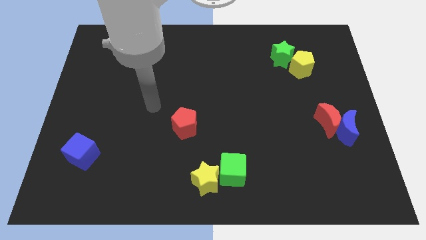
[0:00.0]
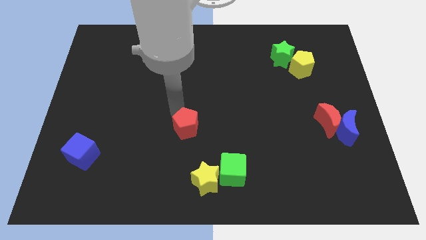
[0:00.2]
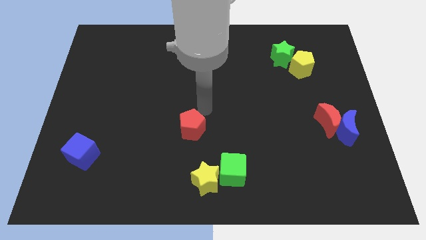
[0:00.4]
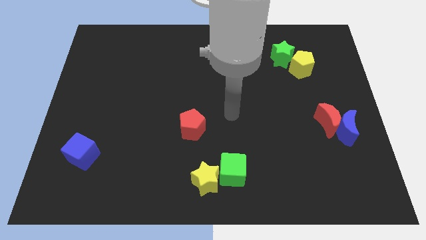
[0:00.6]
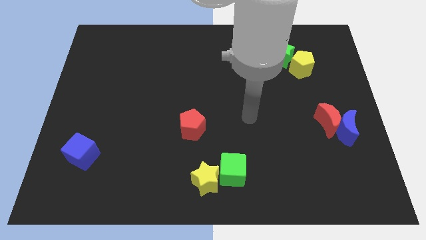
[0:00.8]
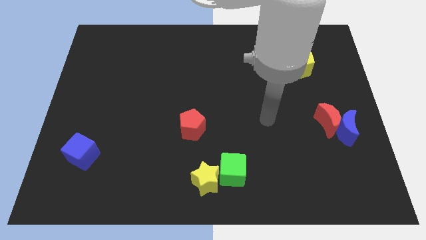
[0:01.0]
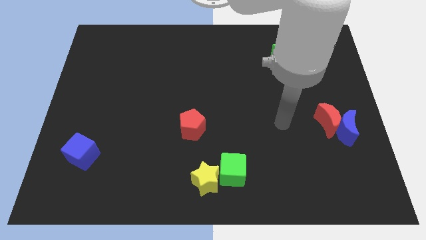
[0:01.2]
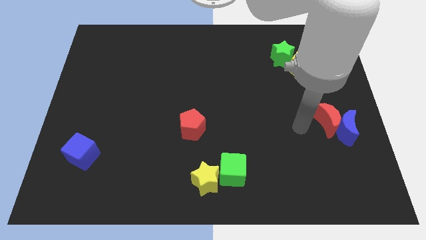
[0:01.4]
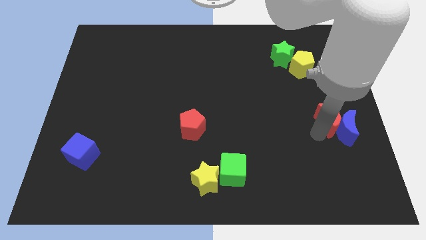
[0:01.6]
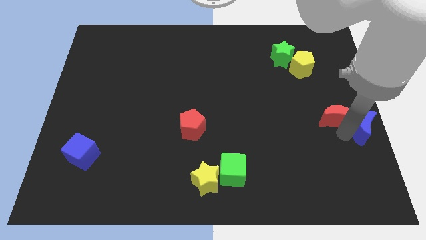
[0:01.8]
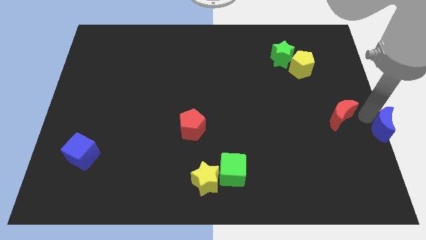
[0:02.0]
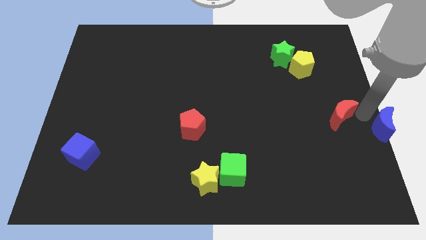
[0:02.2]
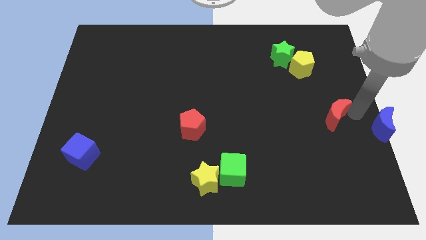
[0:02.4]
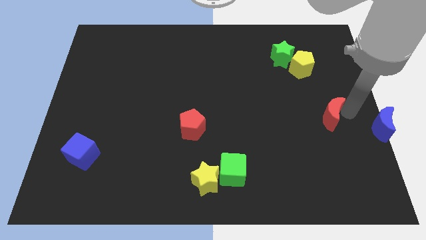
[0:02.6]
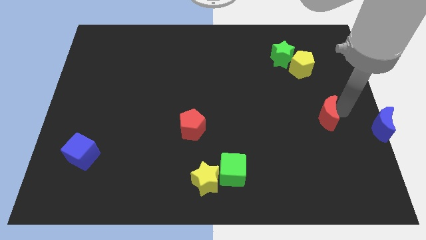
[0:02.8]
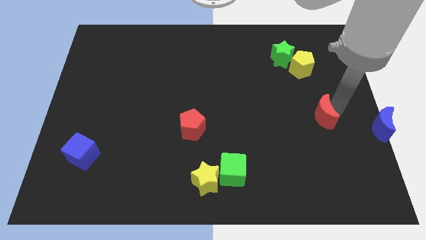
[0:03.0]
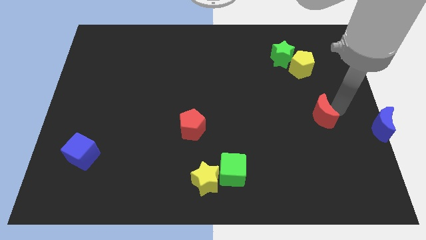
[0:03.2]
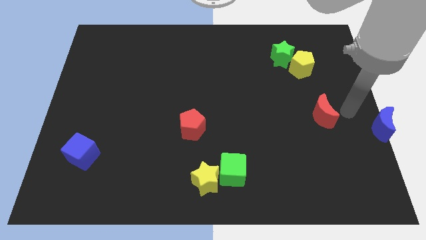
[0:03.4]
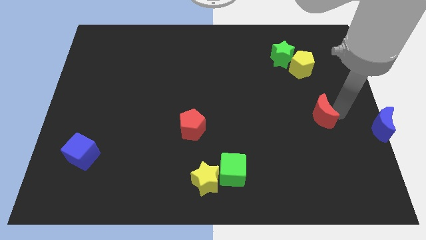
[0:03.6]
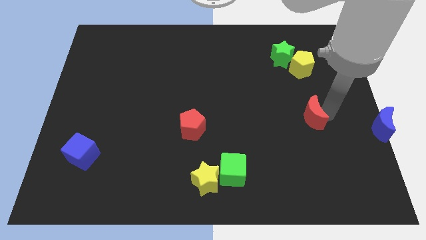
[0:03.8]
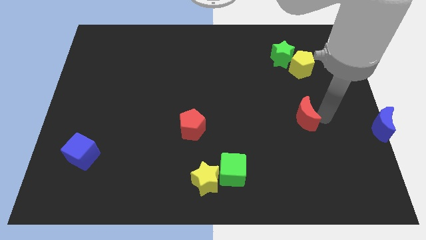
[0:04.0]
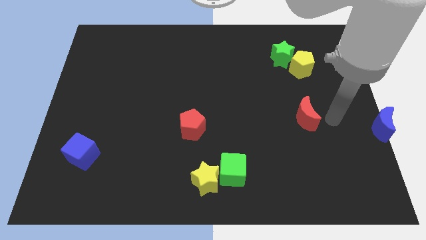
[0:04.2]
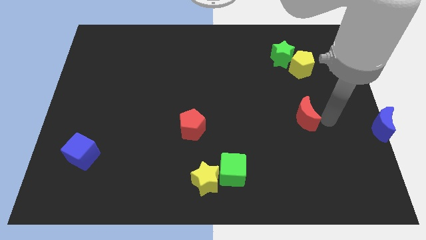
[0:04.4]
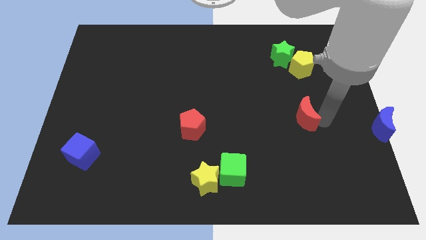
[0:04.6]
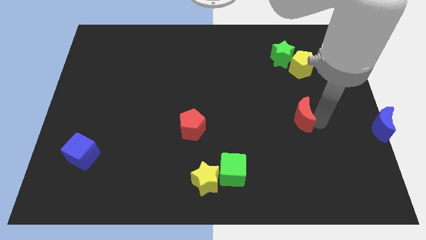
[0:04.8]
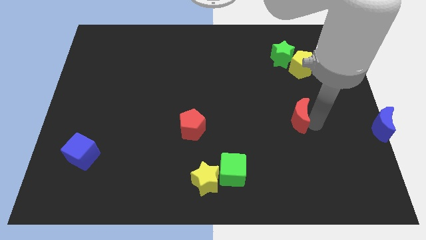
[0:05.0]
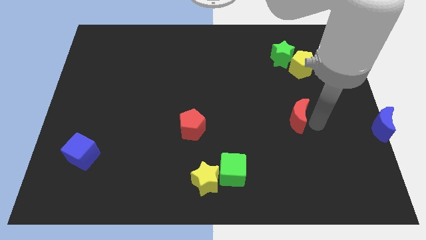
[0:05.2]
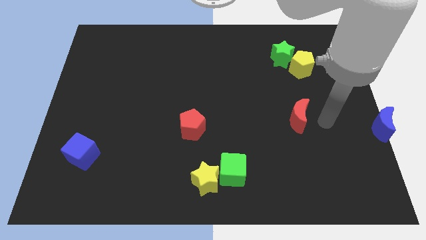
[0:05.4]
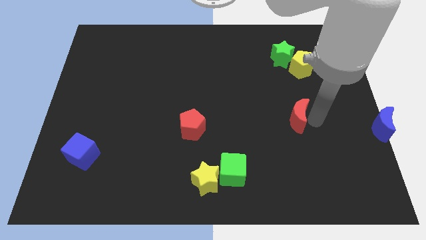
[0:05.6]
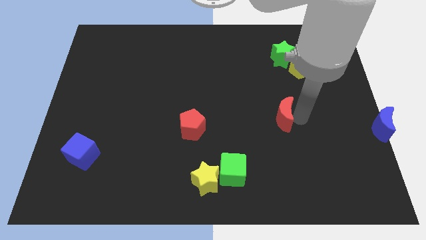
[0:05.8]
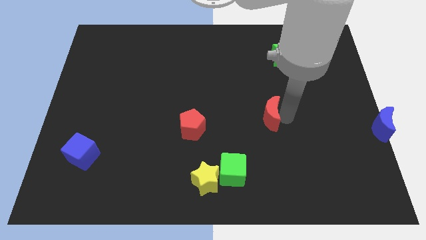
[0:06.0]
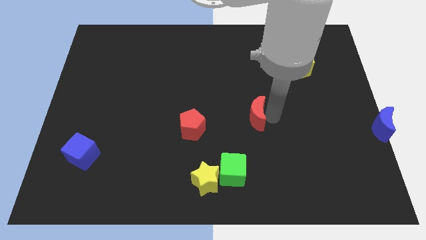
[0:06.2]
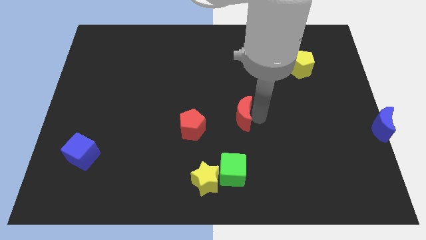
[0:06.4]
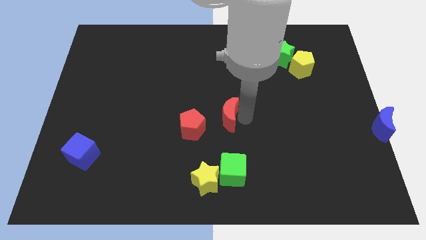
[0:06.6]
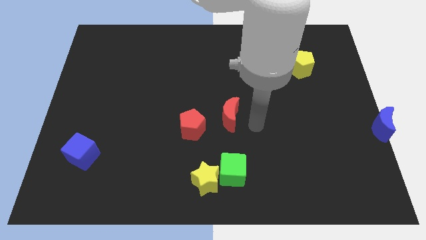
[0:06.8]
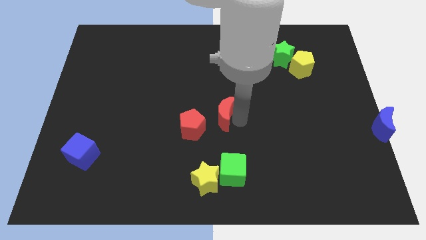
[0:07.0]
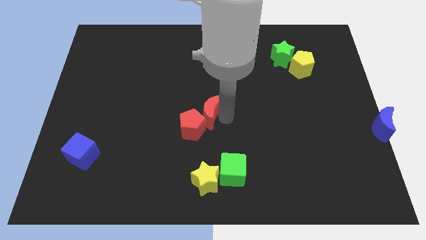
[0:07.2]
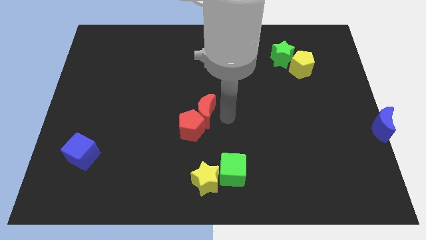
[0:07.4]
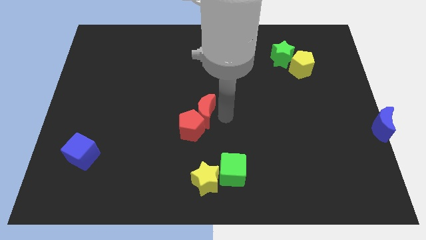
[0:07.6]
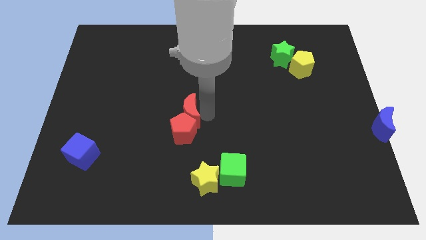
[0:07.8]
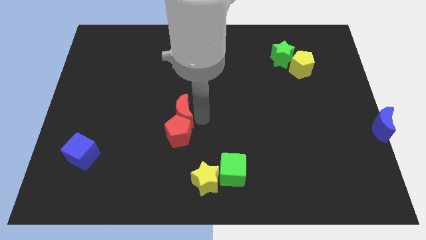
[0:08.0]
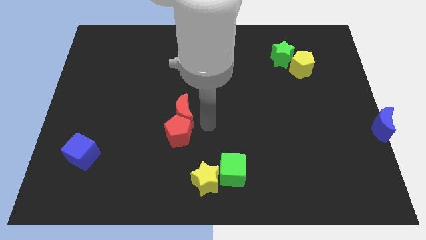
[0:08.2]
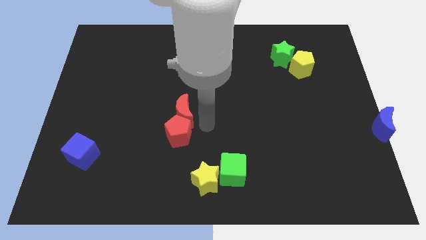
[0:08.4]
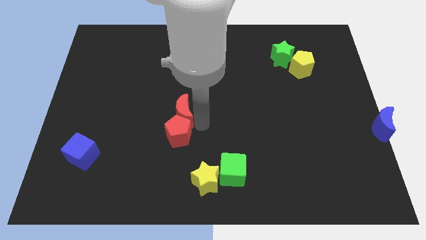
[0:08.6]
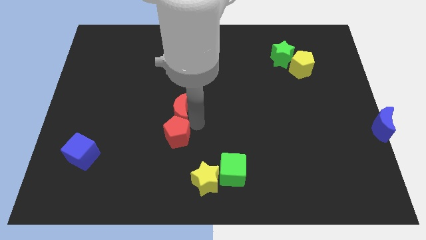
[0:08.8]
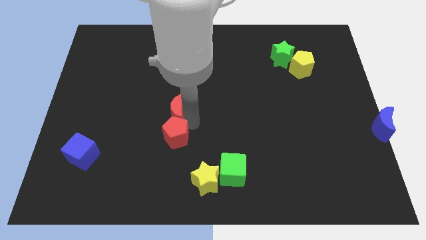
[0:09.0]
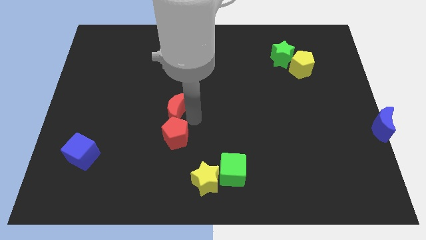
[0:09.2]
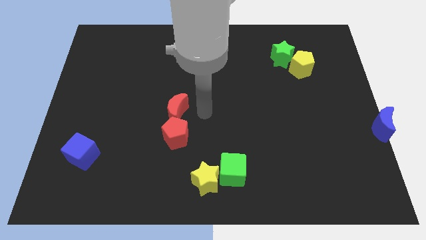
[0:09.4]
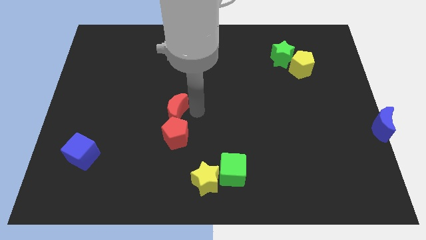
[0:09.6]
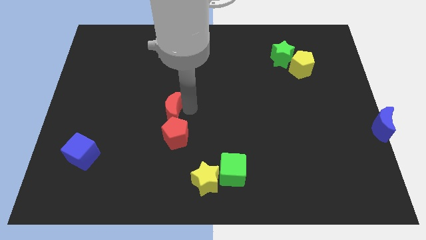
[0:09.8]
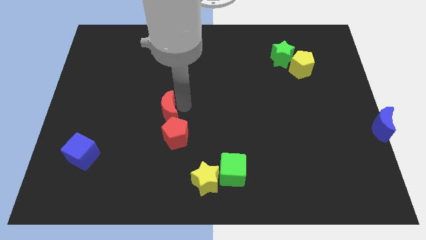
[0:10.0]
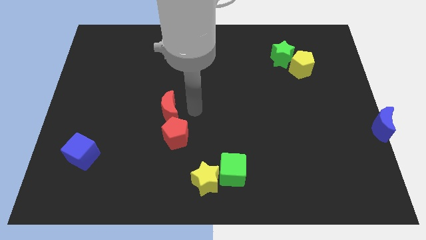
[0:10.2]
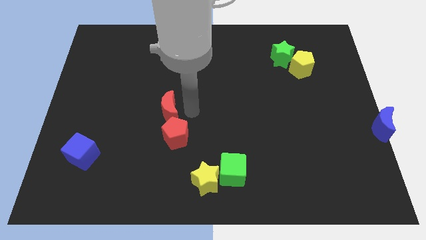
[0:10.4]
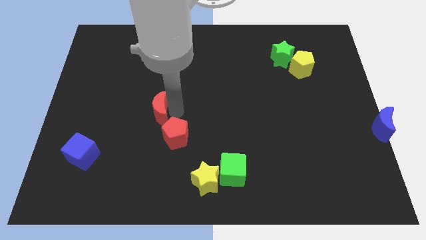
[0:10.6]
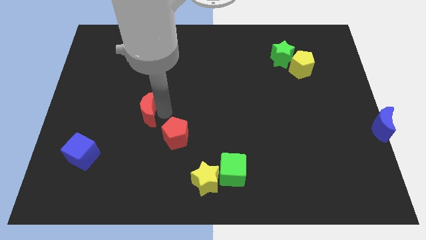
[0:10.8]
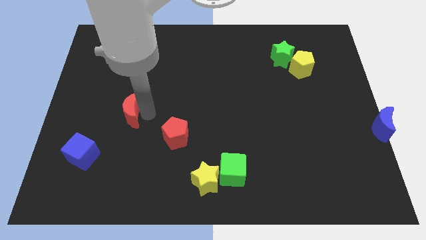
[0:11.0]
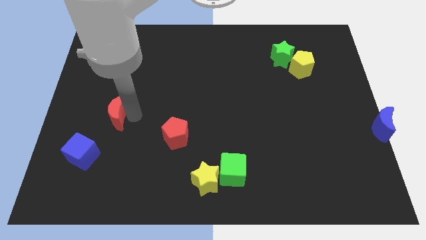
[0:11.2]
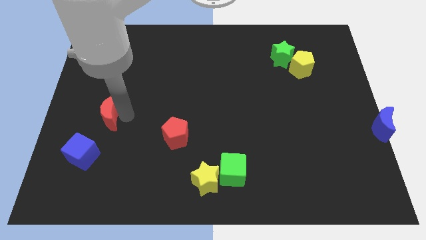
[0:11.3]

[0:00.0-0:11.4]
push the red moon to the top of the blue cube

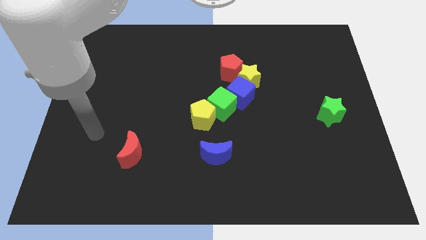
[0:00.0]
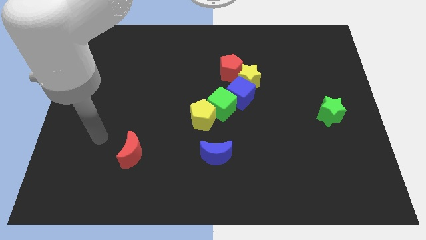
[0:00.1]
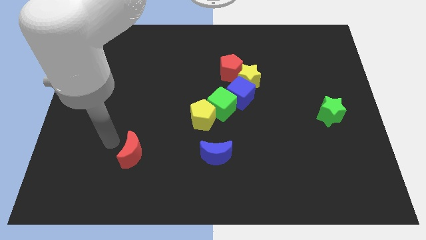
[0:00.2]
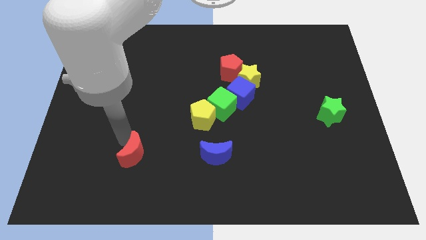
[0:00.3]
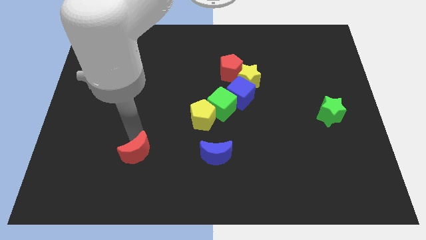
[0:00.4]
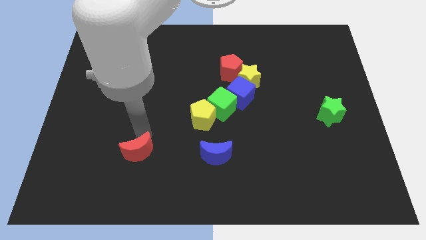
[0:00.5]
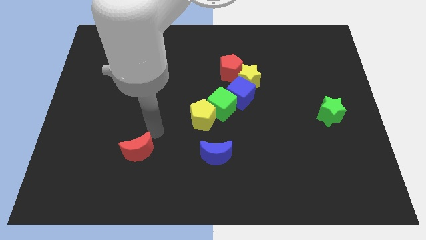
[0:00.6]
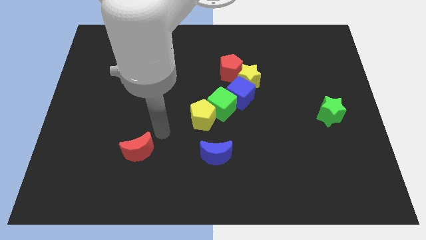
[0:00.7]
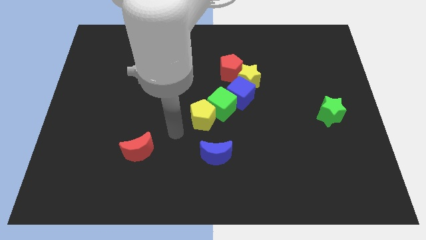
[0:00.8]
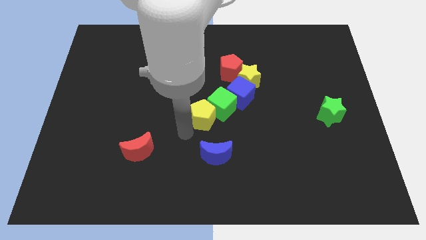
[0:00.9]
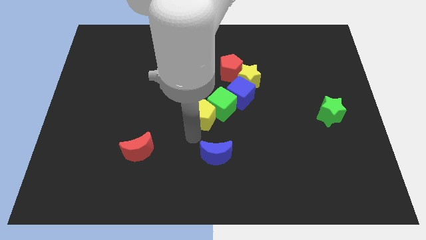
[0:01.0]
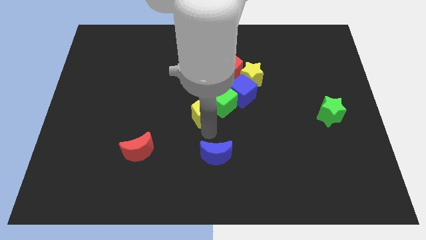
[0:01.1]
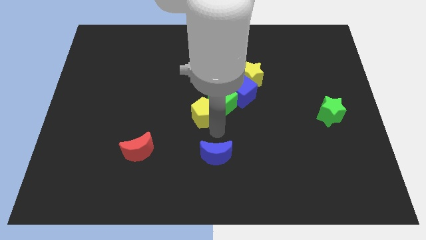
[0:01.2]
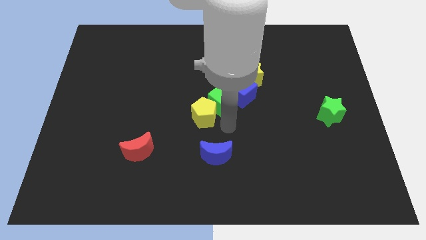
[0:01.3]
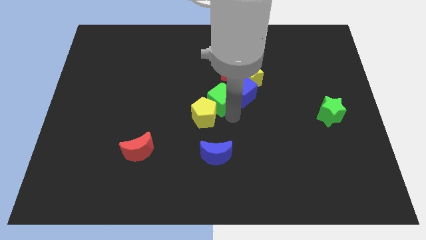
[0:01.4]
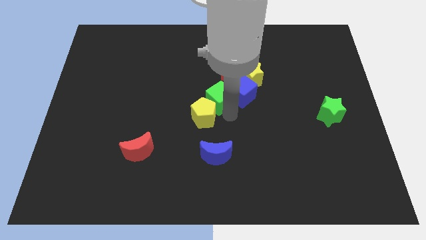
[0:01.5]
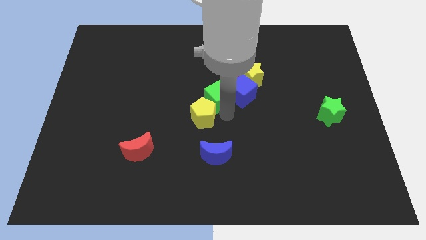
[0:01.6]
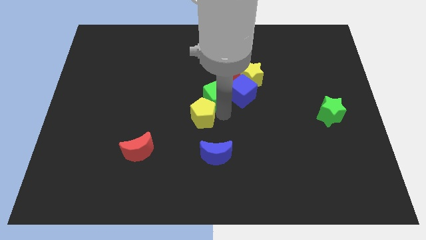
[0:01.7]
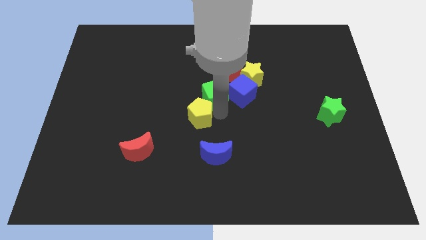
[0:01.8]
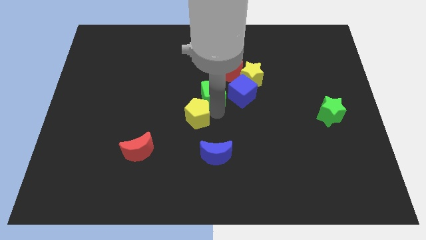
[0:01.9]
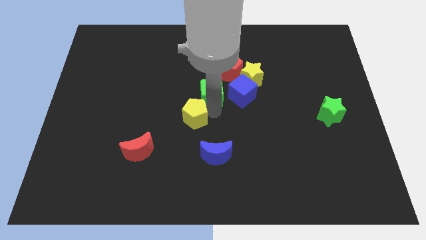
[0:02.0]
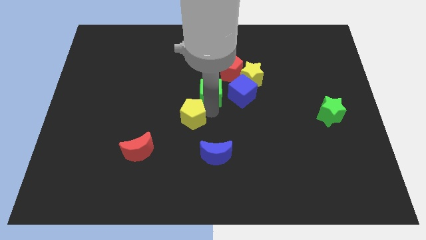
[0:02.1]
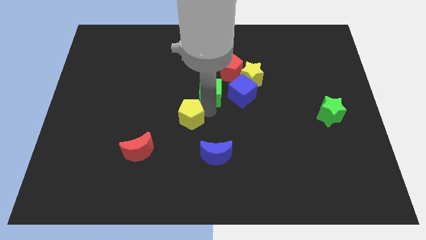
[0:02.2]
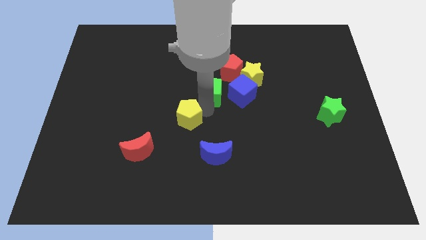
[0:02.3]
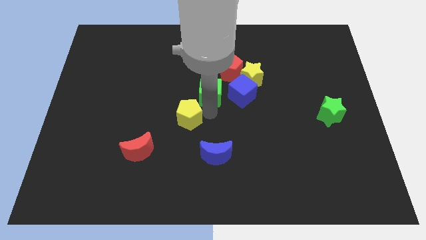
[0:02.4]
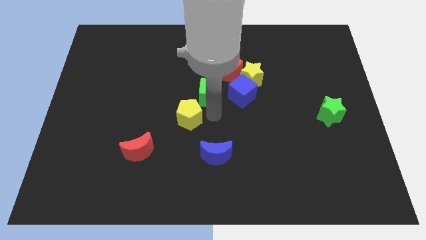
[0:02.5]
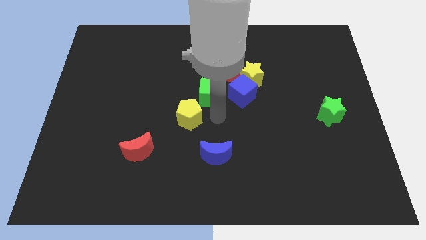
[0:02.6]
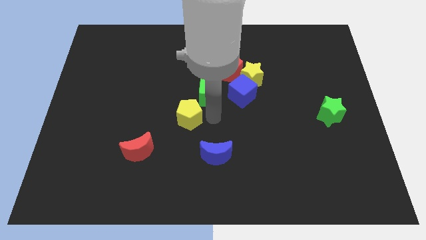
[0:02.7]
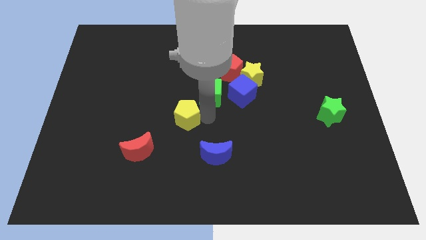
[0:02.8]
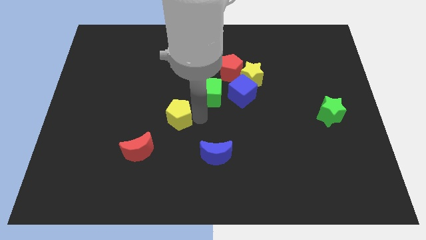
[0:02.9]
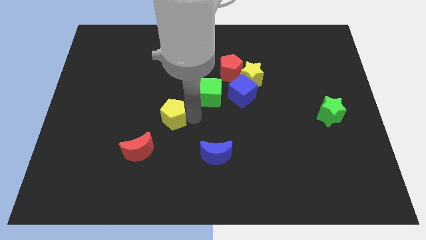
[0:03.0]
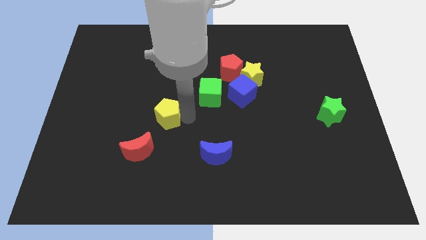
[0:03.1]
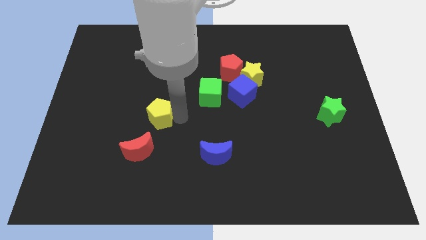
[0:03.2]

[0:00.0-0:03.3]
slide the yellow pentagon to the top of the red moon
